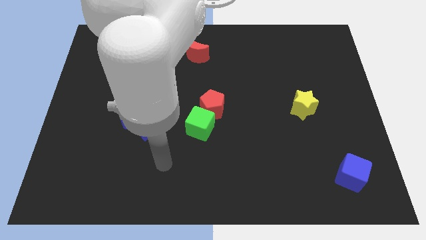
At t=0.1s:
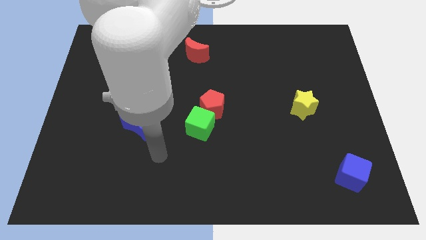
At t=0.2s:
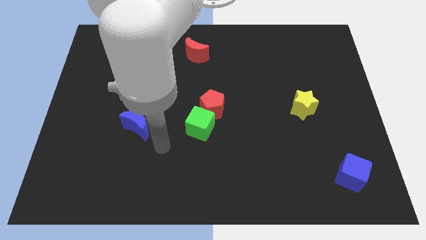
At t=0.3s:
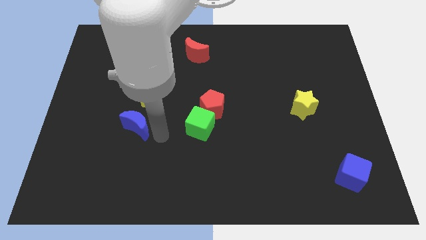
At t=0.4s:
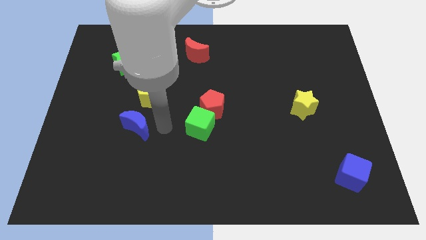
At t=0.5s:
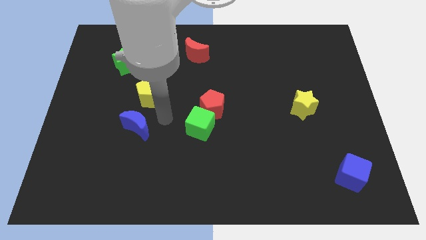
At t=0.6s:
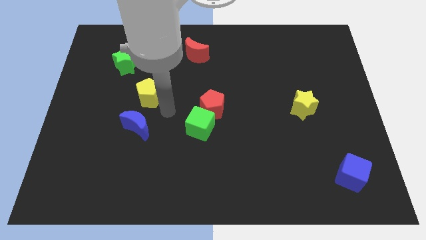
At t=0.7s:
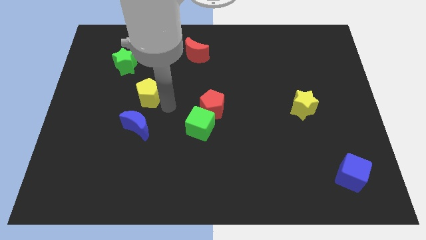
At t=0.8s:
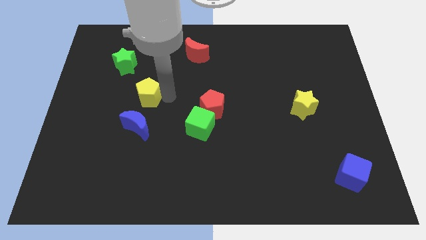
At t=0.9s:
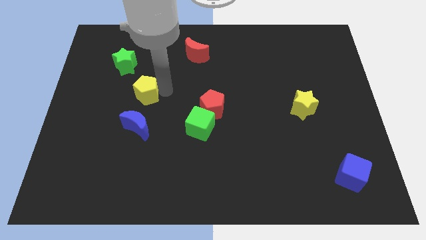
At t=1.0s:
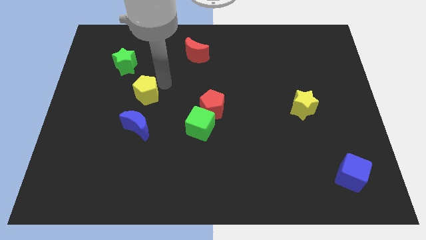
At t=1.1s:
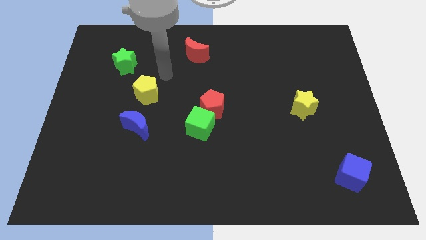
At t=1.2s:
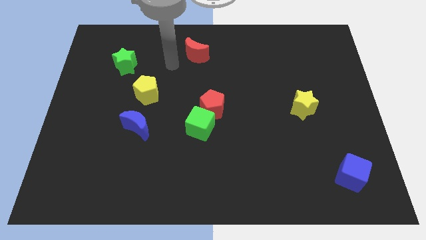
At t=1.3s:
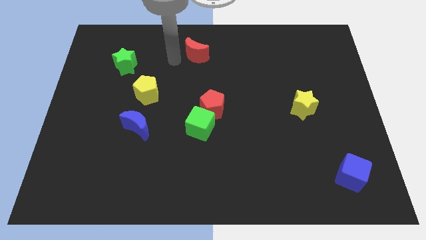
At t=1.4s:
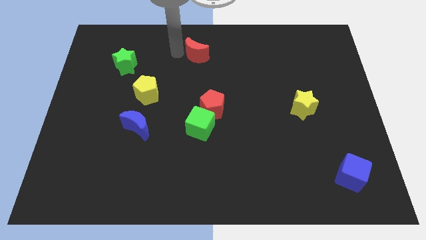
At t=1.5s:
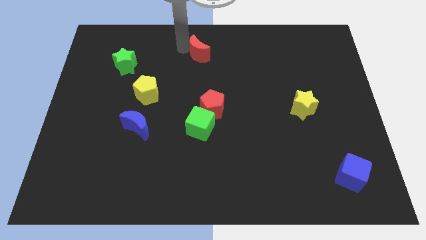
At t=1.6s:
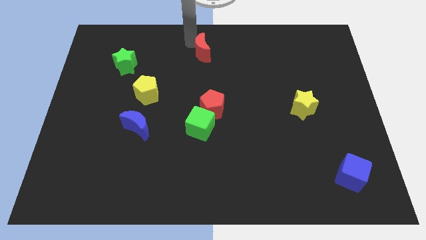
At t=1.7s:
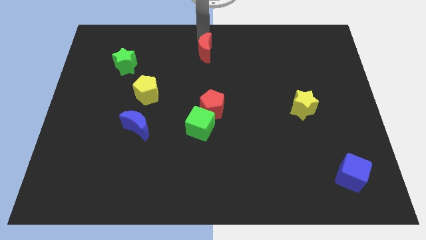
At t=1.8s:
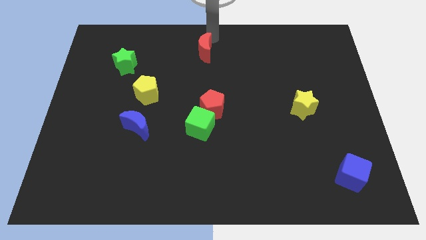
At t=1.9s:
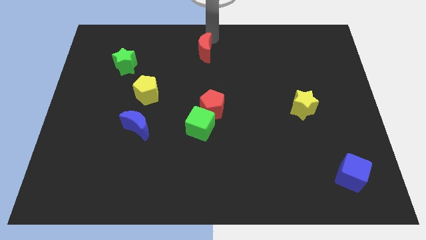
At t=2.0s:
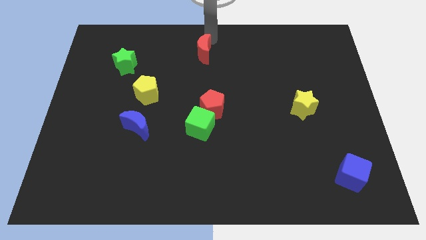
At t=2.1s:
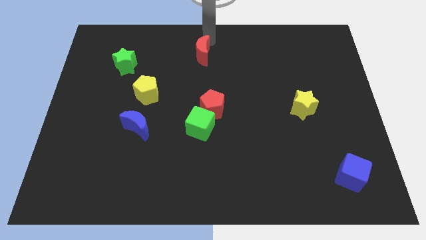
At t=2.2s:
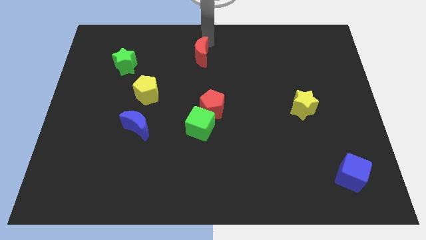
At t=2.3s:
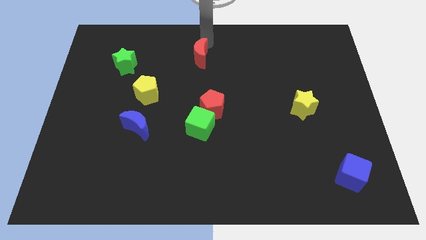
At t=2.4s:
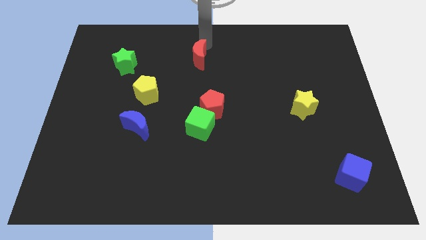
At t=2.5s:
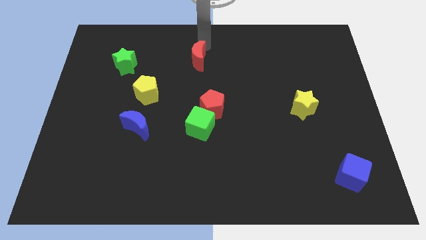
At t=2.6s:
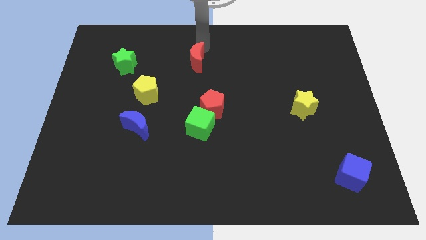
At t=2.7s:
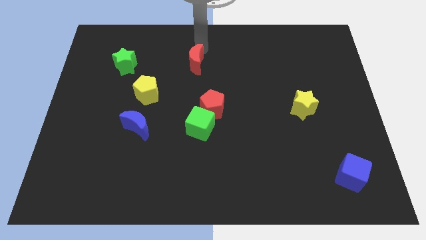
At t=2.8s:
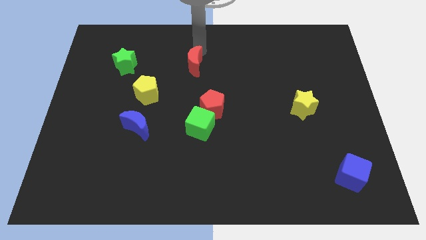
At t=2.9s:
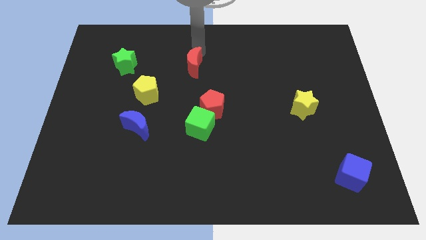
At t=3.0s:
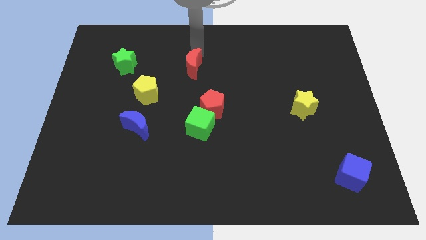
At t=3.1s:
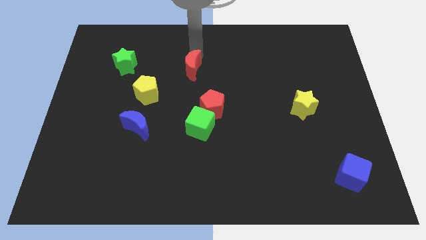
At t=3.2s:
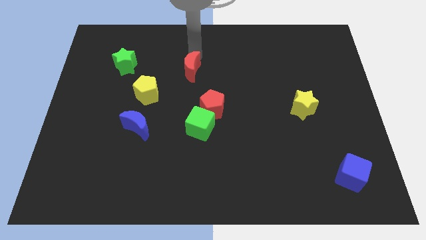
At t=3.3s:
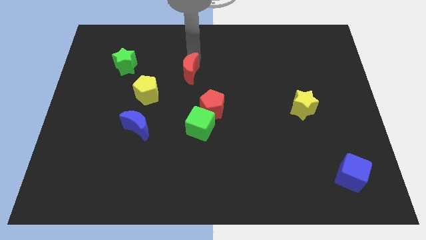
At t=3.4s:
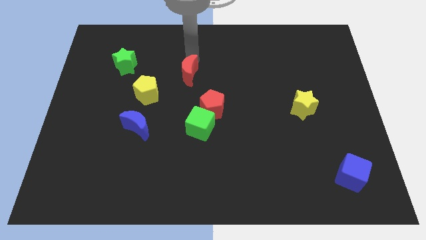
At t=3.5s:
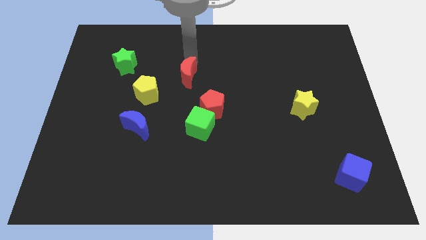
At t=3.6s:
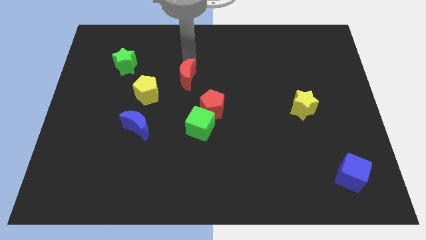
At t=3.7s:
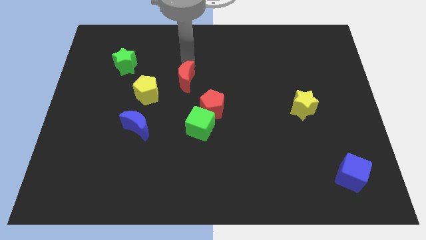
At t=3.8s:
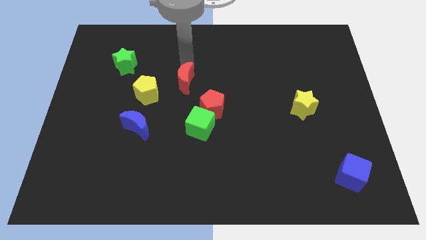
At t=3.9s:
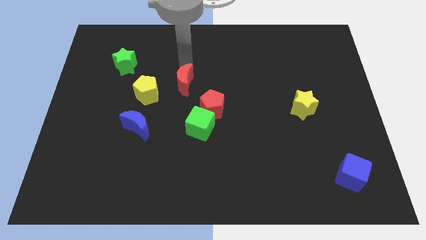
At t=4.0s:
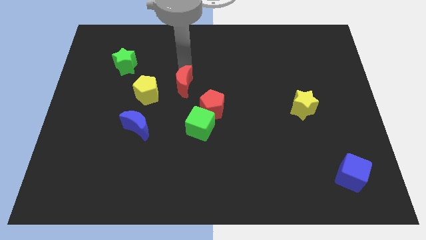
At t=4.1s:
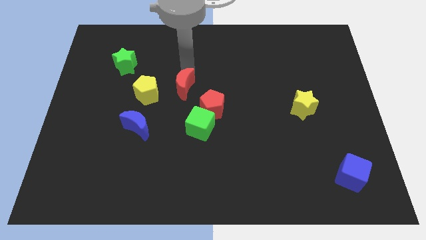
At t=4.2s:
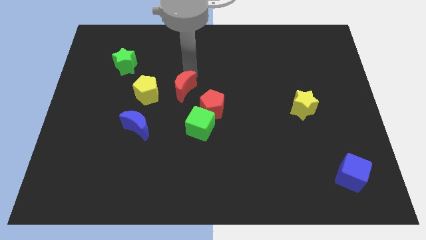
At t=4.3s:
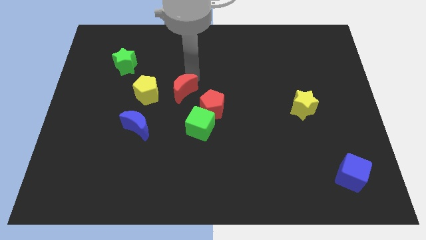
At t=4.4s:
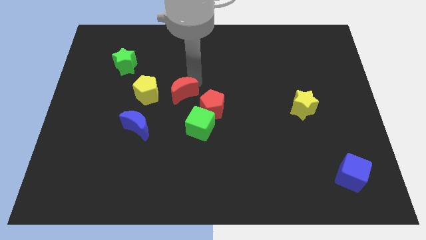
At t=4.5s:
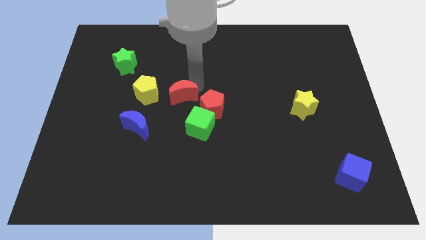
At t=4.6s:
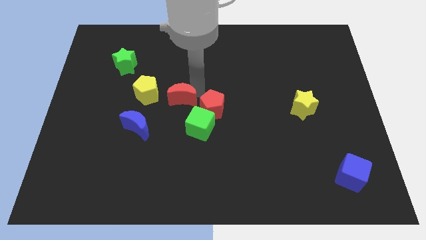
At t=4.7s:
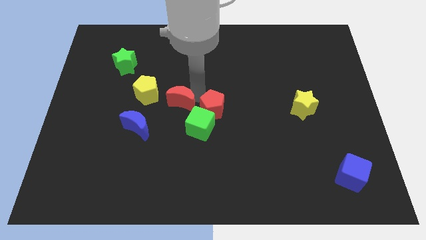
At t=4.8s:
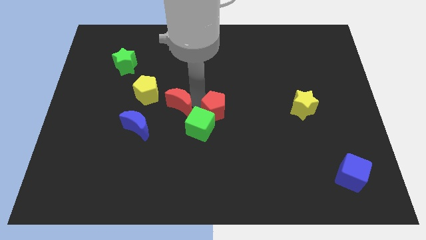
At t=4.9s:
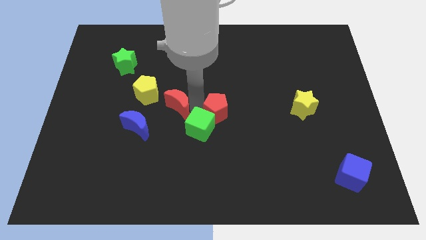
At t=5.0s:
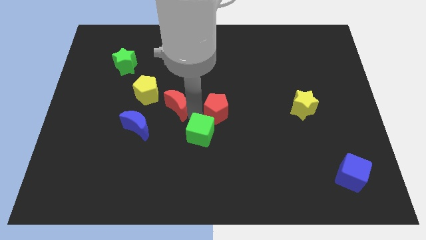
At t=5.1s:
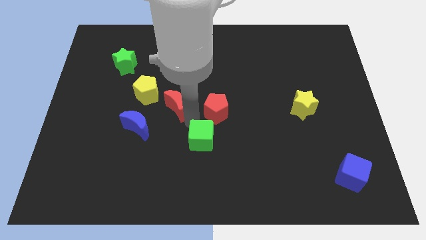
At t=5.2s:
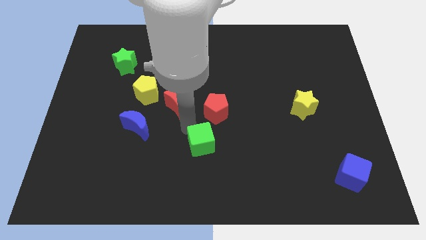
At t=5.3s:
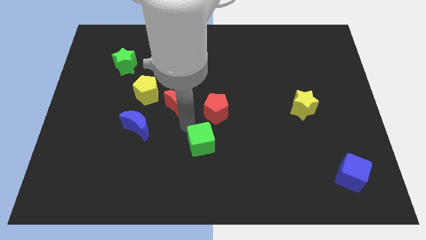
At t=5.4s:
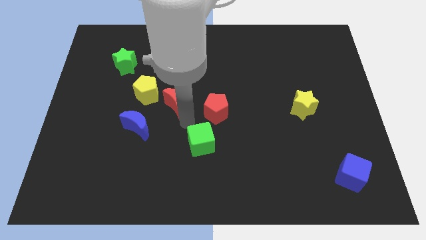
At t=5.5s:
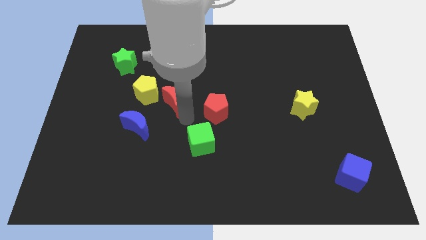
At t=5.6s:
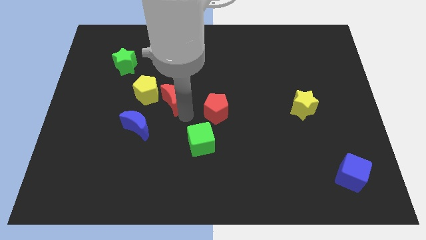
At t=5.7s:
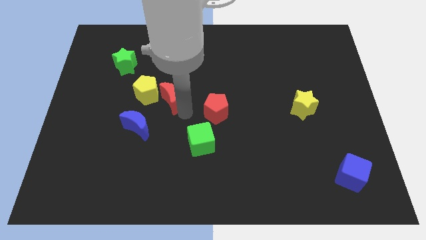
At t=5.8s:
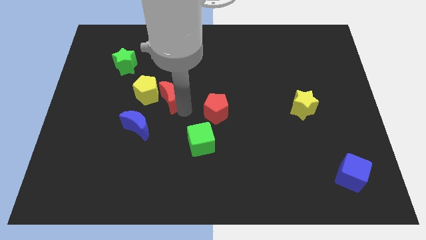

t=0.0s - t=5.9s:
push the red moon towards the yellow pentagon

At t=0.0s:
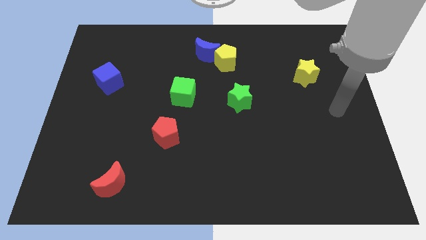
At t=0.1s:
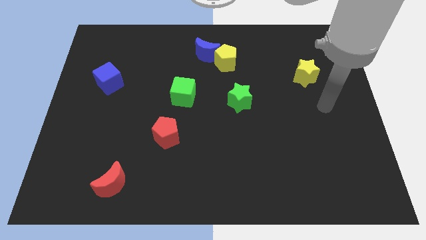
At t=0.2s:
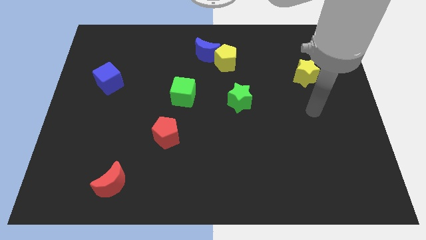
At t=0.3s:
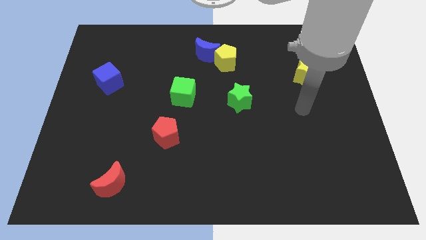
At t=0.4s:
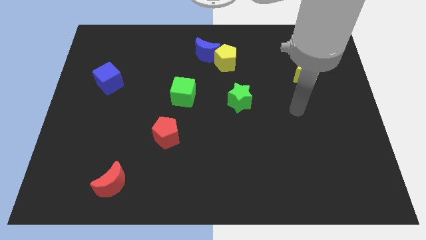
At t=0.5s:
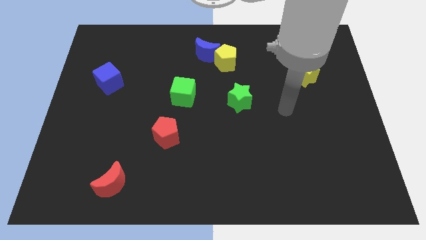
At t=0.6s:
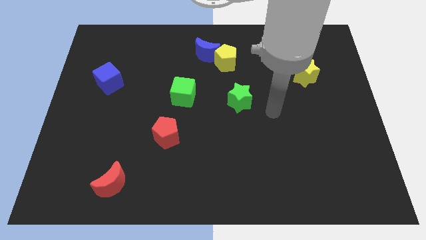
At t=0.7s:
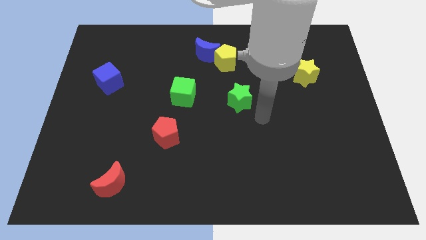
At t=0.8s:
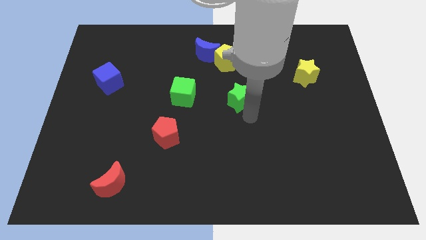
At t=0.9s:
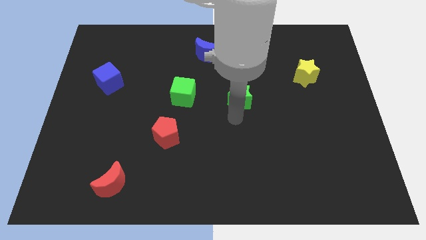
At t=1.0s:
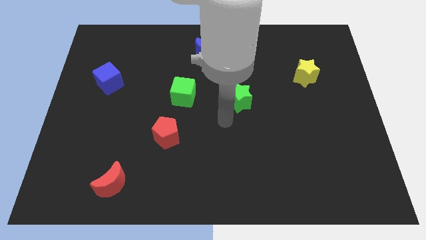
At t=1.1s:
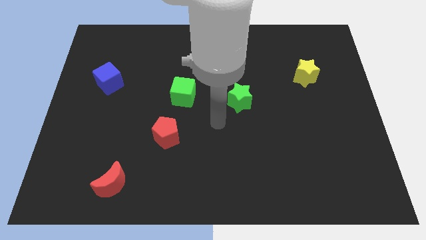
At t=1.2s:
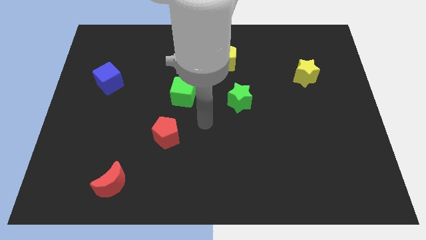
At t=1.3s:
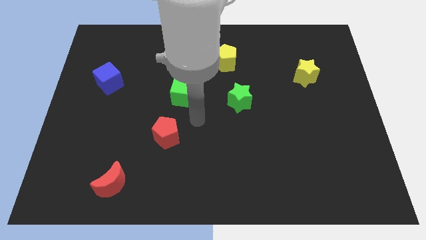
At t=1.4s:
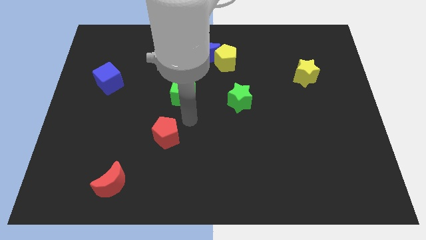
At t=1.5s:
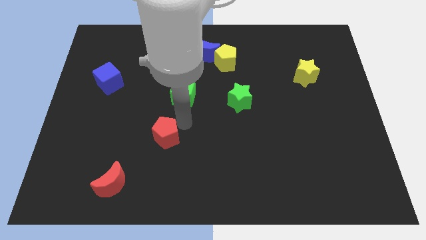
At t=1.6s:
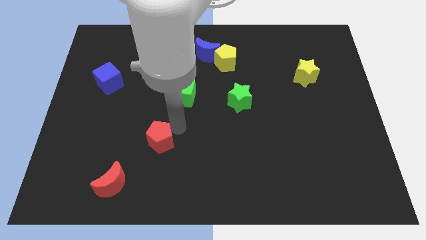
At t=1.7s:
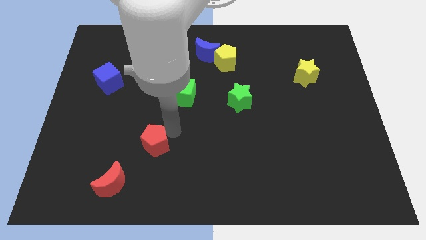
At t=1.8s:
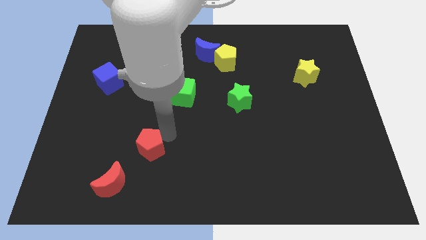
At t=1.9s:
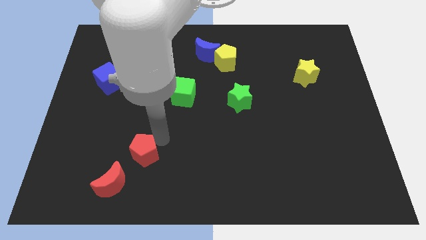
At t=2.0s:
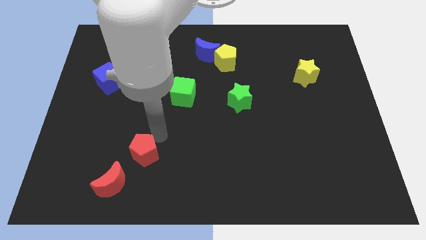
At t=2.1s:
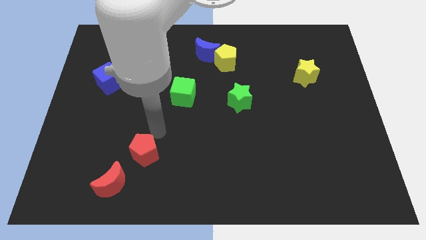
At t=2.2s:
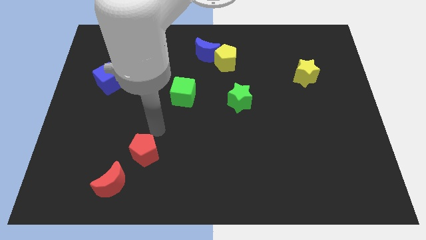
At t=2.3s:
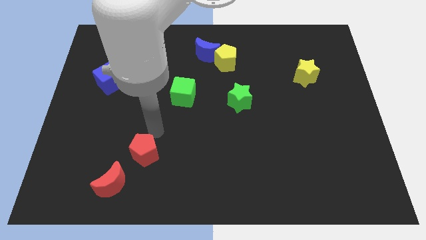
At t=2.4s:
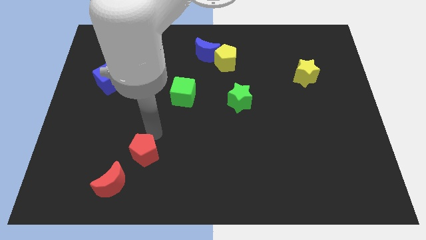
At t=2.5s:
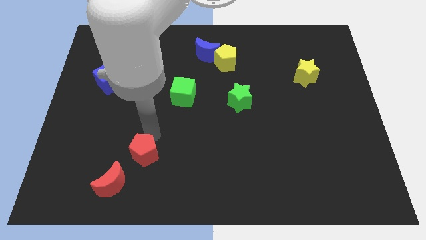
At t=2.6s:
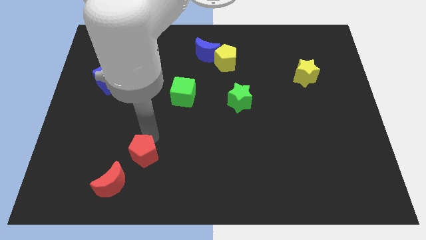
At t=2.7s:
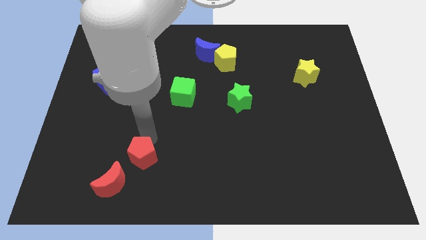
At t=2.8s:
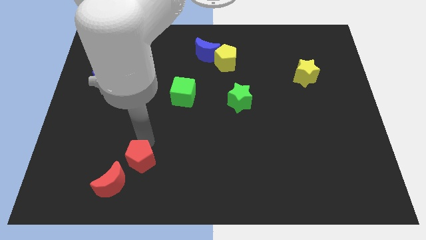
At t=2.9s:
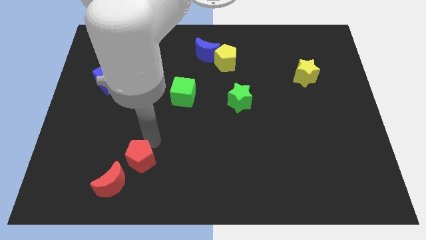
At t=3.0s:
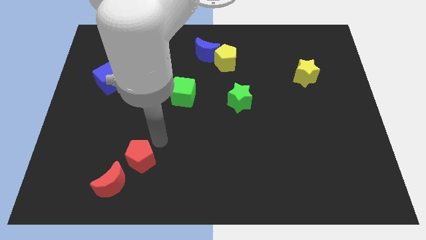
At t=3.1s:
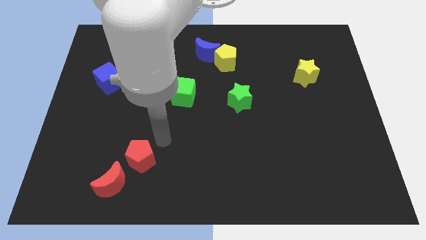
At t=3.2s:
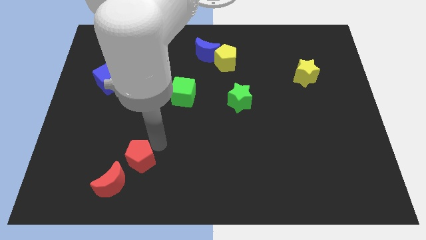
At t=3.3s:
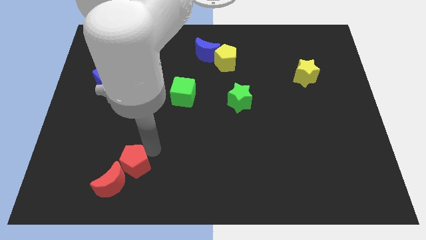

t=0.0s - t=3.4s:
slide the red pentagon to the red moon
